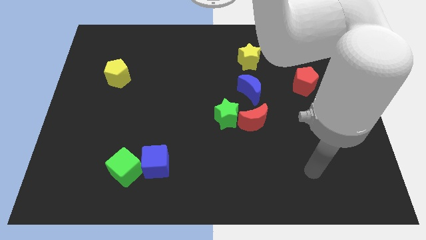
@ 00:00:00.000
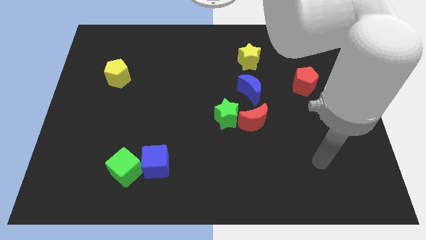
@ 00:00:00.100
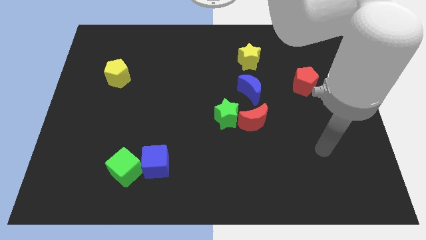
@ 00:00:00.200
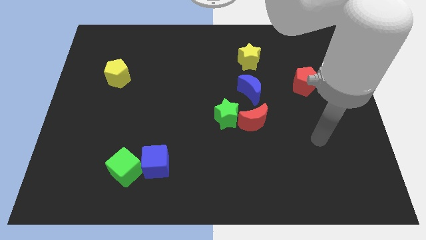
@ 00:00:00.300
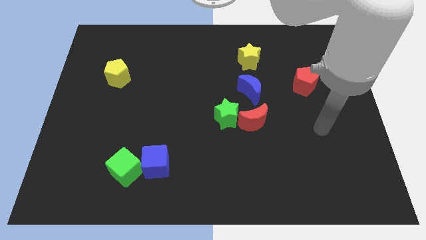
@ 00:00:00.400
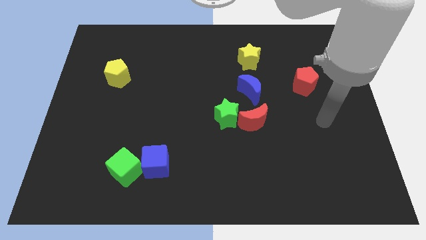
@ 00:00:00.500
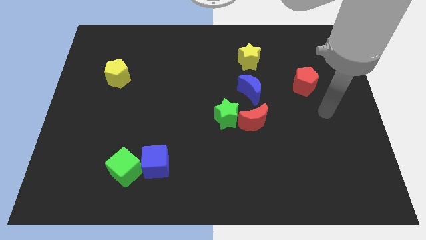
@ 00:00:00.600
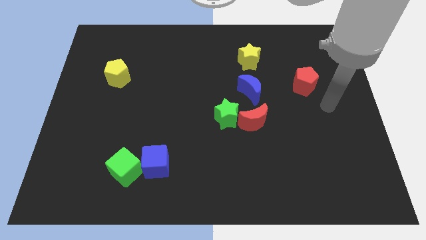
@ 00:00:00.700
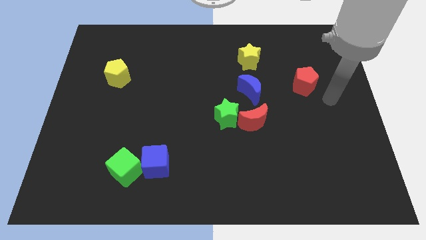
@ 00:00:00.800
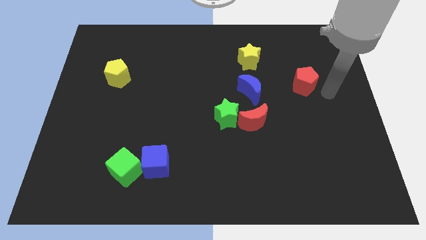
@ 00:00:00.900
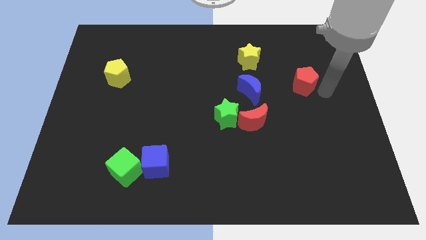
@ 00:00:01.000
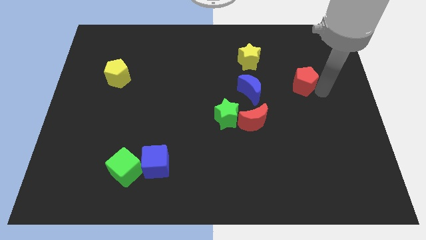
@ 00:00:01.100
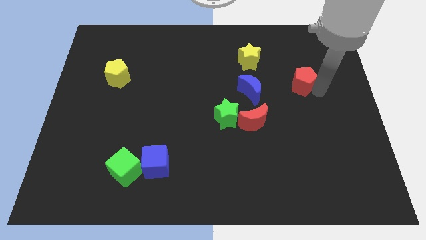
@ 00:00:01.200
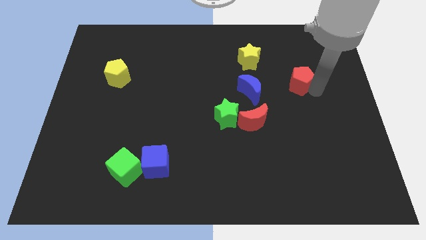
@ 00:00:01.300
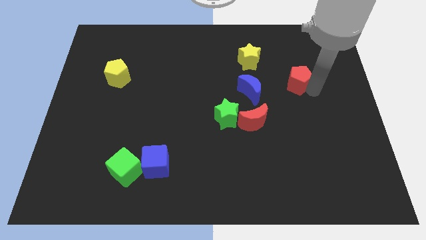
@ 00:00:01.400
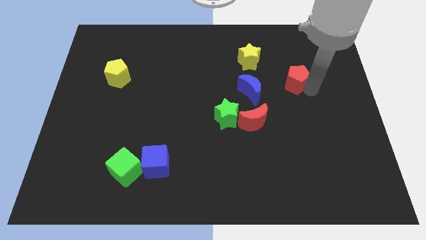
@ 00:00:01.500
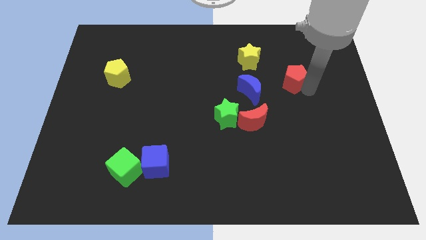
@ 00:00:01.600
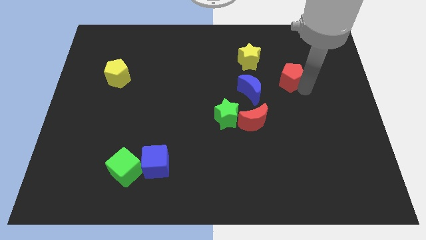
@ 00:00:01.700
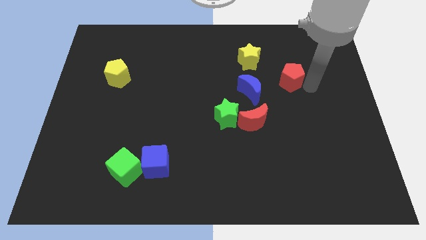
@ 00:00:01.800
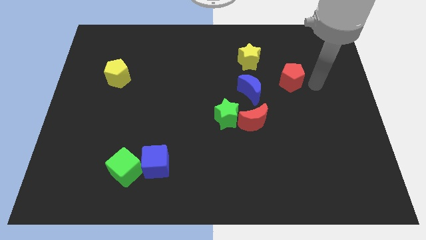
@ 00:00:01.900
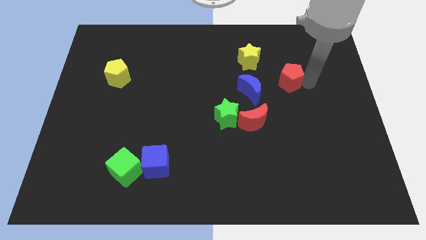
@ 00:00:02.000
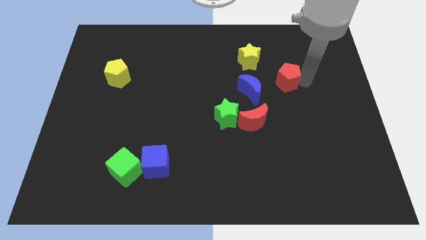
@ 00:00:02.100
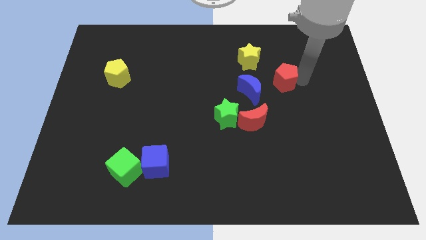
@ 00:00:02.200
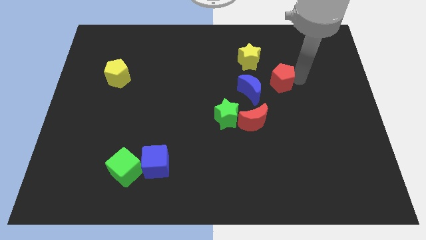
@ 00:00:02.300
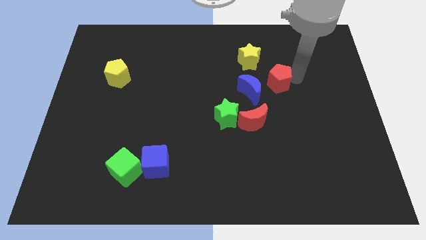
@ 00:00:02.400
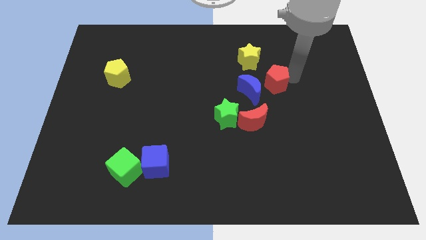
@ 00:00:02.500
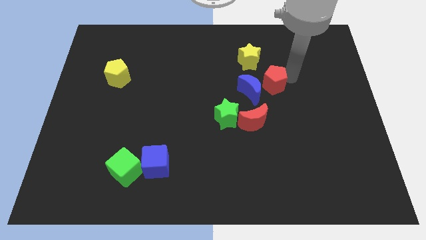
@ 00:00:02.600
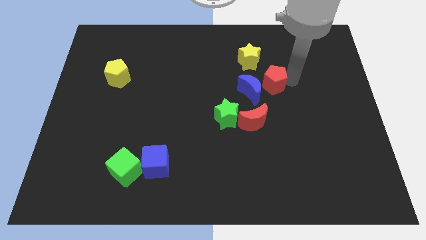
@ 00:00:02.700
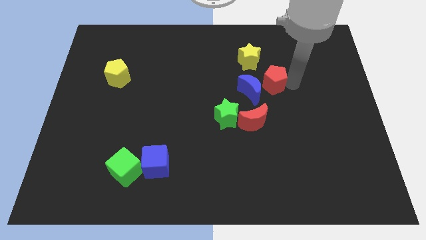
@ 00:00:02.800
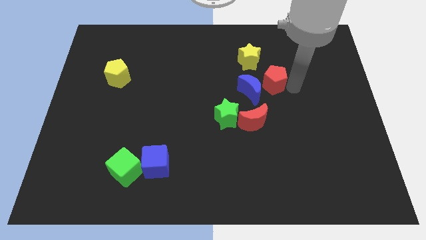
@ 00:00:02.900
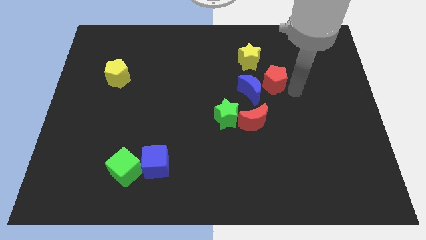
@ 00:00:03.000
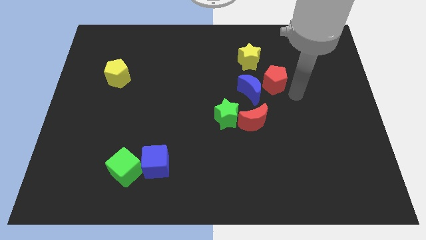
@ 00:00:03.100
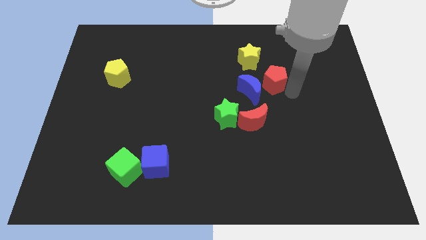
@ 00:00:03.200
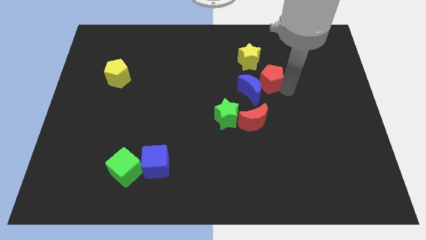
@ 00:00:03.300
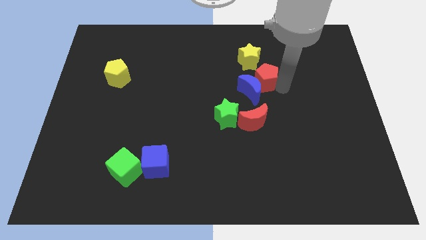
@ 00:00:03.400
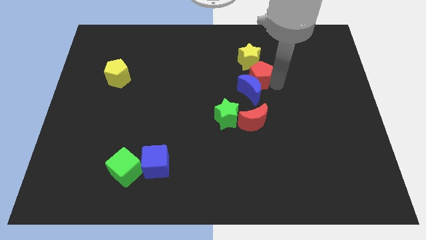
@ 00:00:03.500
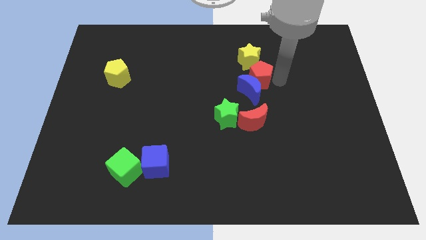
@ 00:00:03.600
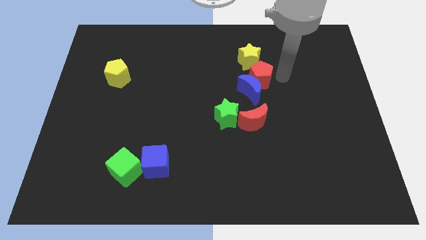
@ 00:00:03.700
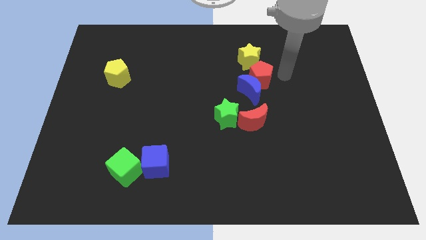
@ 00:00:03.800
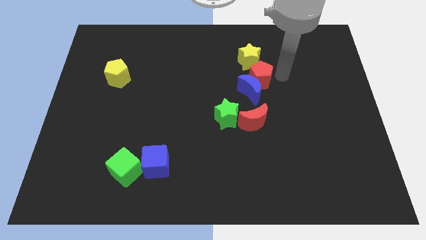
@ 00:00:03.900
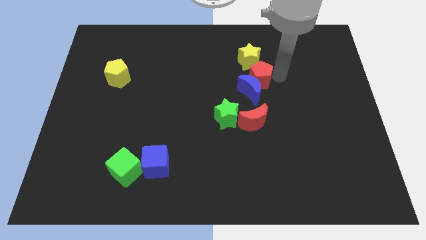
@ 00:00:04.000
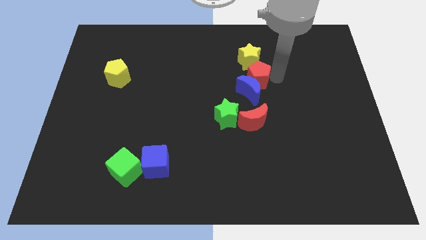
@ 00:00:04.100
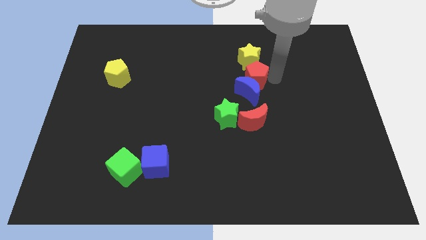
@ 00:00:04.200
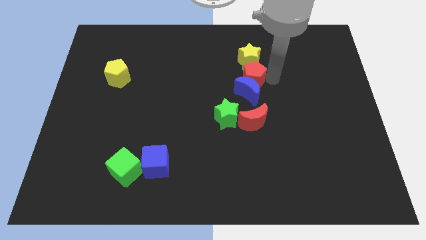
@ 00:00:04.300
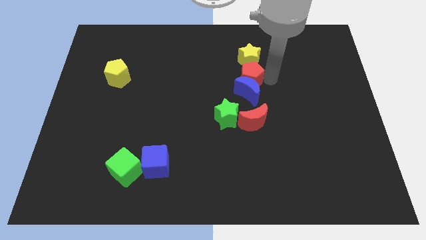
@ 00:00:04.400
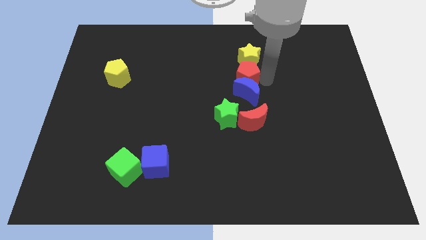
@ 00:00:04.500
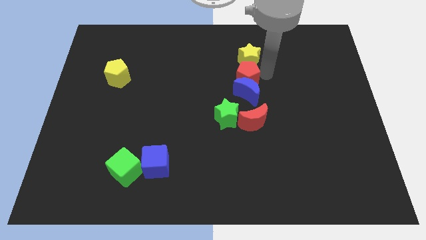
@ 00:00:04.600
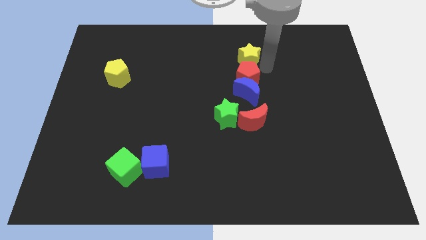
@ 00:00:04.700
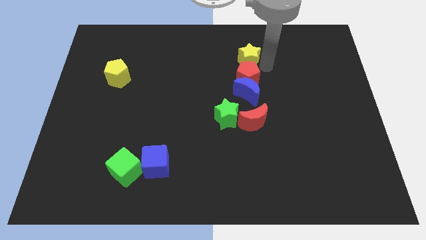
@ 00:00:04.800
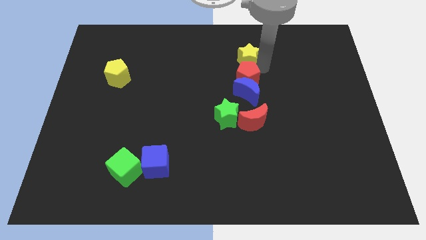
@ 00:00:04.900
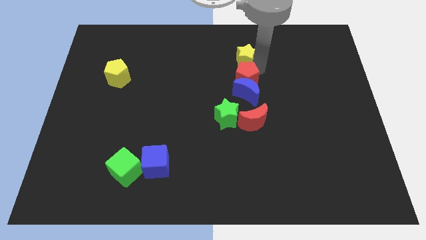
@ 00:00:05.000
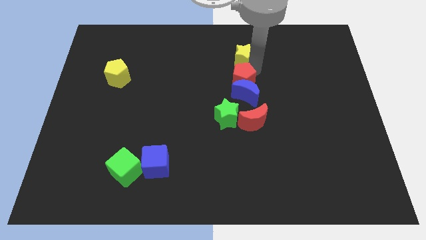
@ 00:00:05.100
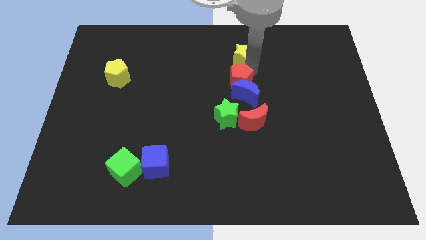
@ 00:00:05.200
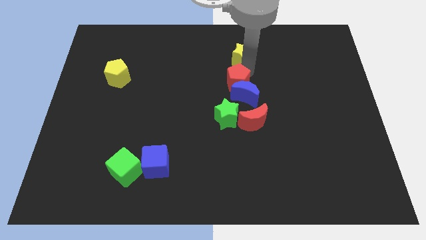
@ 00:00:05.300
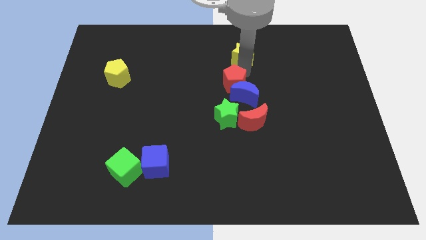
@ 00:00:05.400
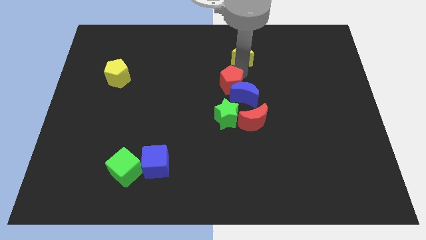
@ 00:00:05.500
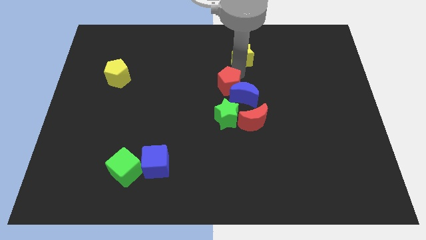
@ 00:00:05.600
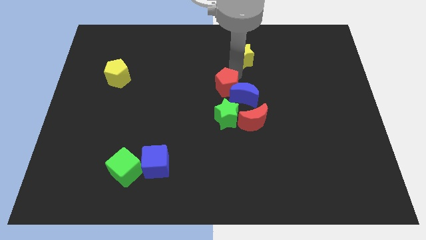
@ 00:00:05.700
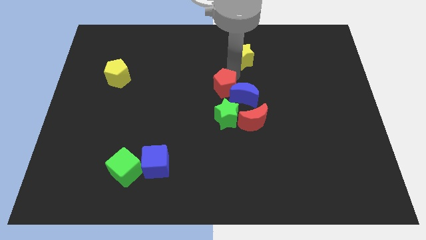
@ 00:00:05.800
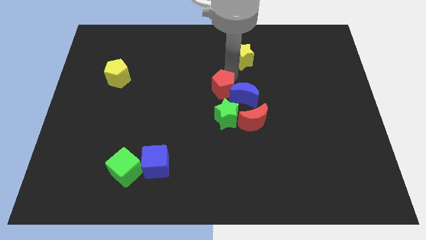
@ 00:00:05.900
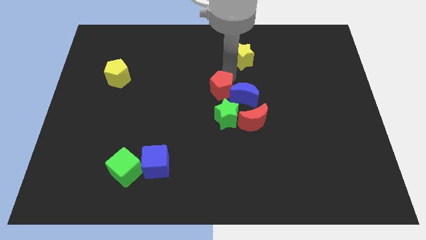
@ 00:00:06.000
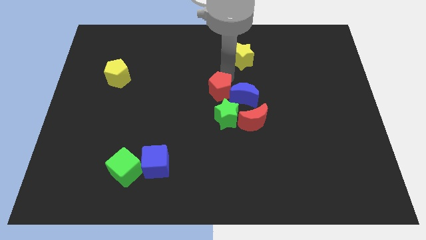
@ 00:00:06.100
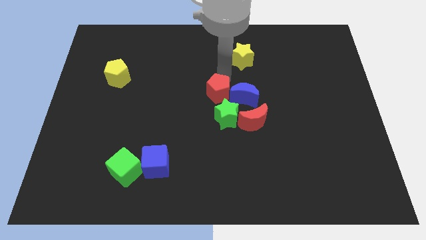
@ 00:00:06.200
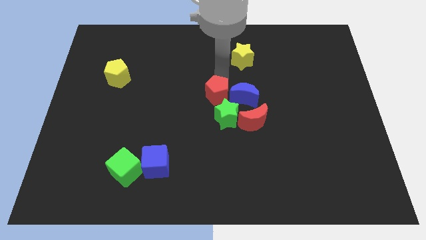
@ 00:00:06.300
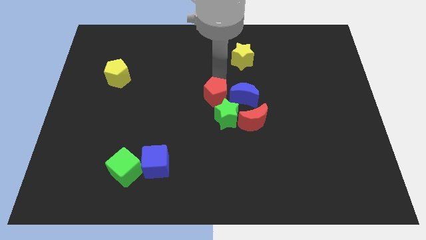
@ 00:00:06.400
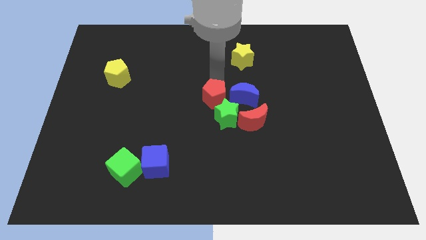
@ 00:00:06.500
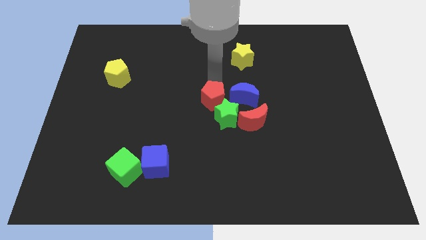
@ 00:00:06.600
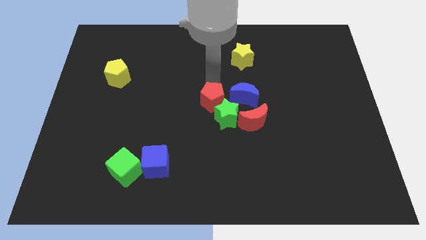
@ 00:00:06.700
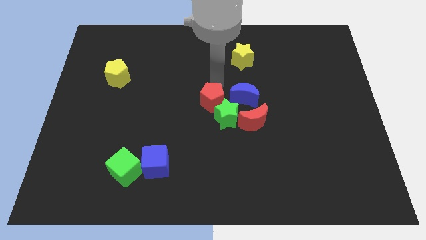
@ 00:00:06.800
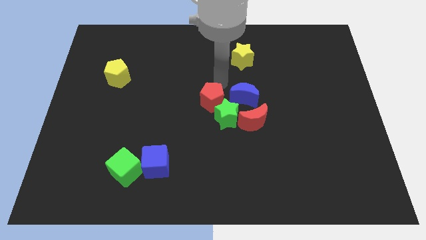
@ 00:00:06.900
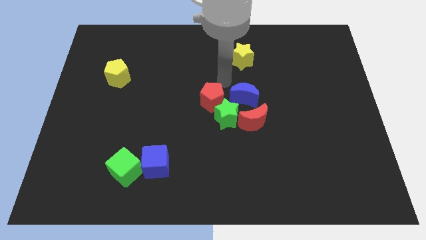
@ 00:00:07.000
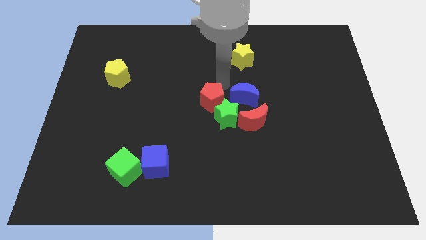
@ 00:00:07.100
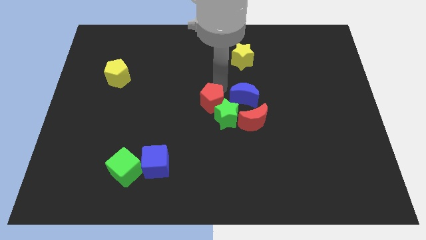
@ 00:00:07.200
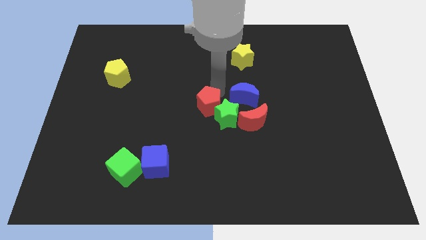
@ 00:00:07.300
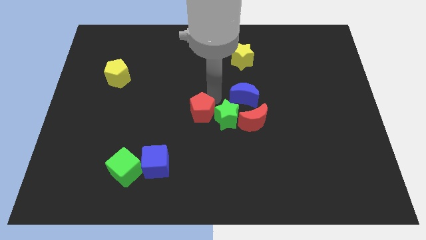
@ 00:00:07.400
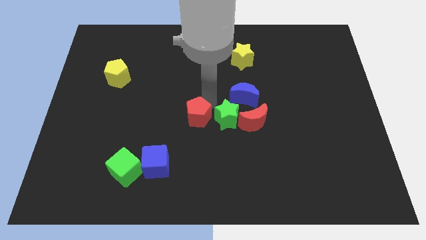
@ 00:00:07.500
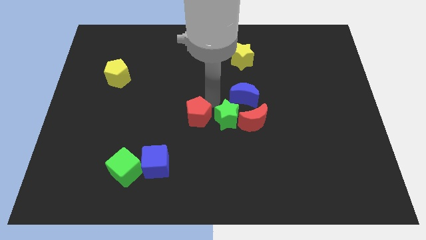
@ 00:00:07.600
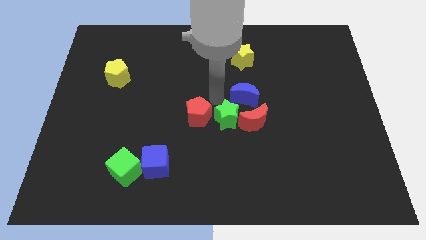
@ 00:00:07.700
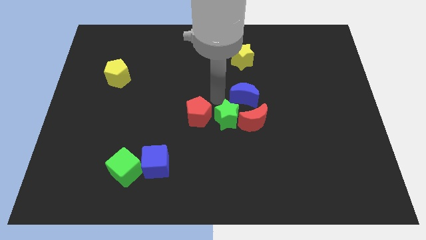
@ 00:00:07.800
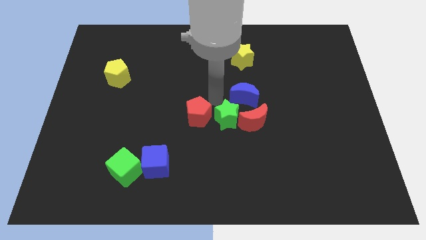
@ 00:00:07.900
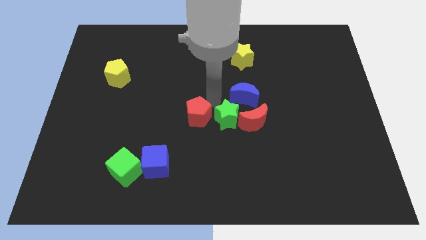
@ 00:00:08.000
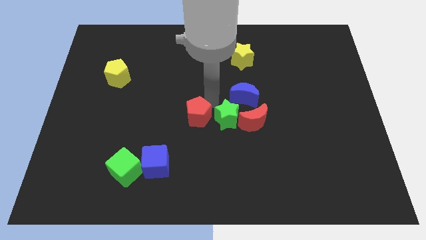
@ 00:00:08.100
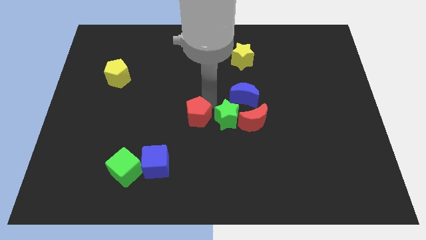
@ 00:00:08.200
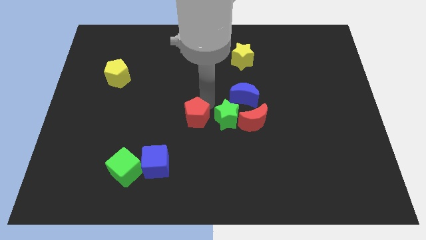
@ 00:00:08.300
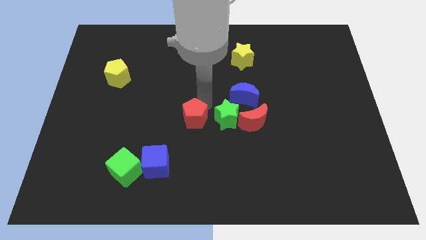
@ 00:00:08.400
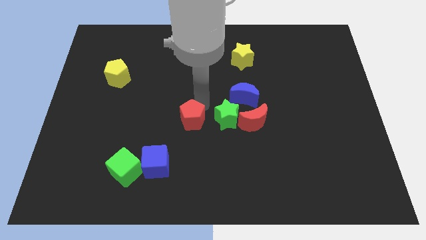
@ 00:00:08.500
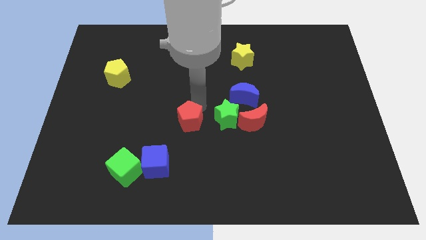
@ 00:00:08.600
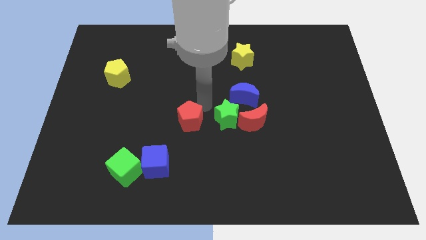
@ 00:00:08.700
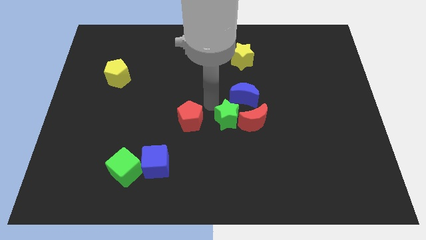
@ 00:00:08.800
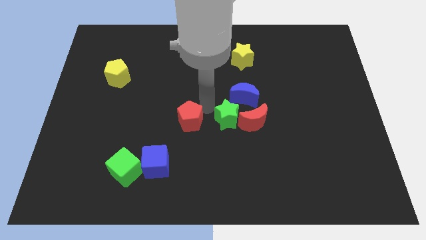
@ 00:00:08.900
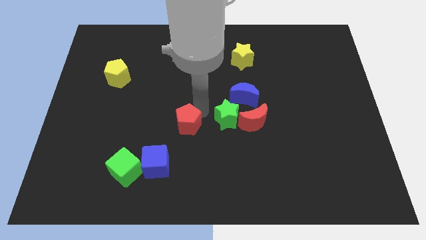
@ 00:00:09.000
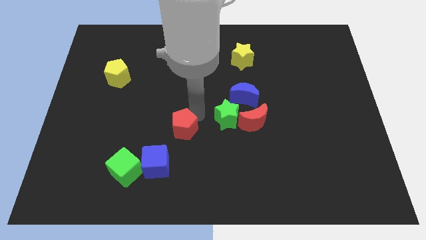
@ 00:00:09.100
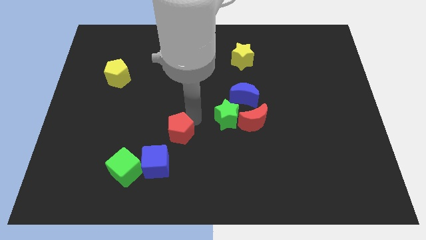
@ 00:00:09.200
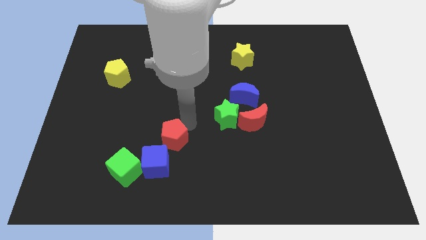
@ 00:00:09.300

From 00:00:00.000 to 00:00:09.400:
push the red pentagon to the top right of the green cube
